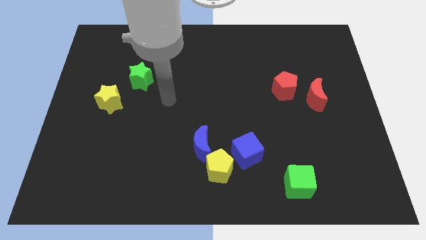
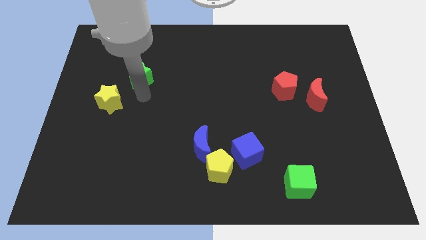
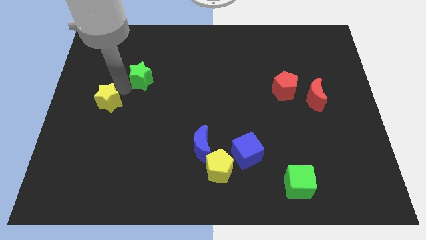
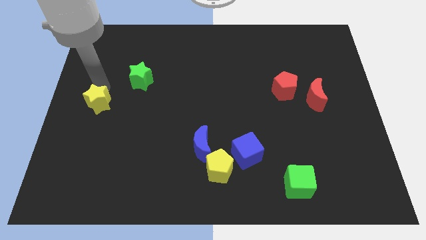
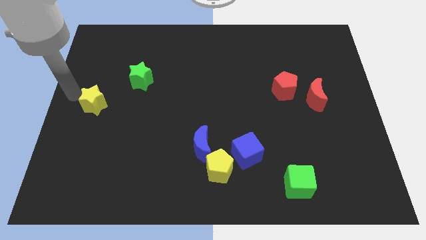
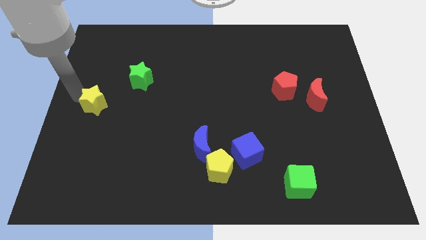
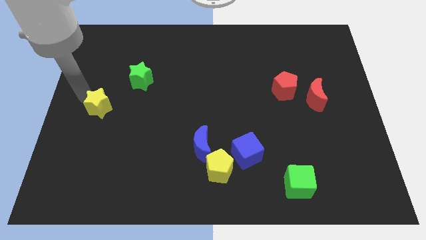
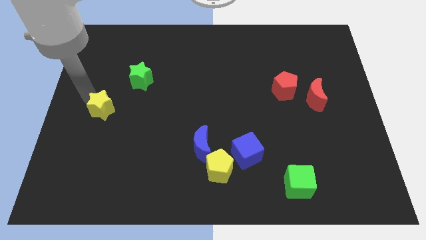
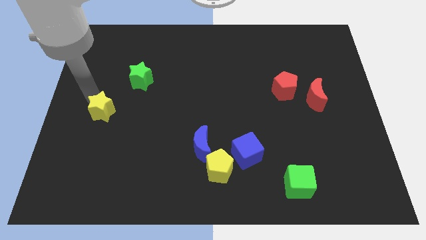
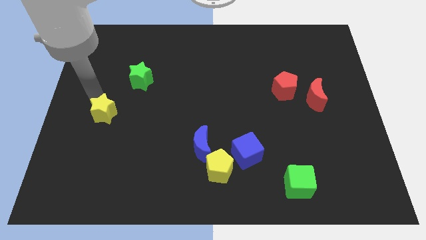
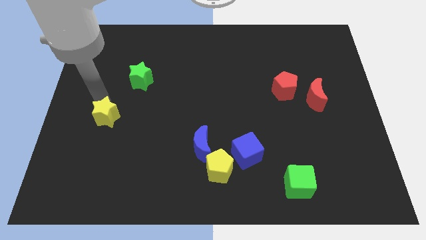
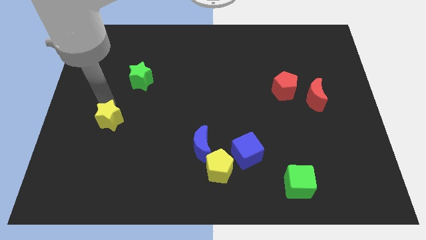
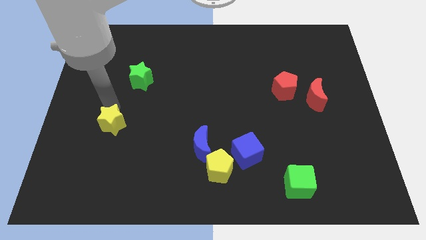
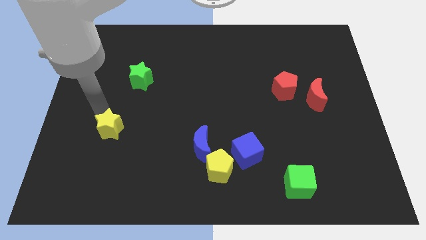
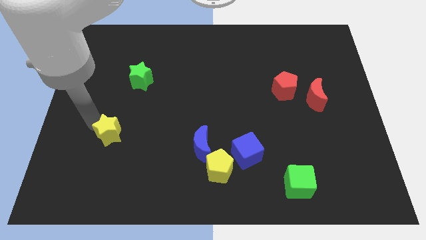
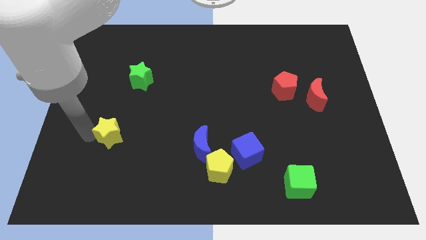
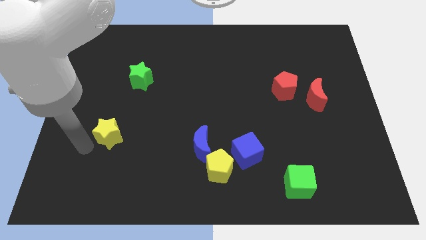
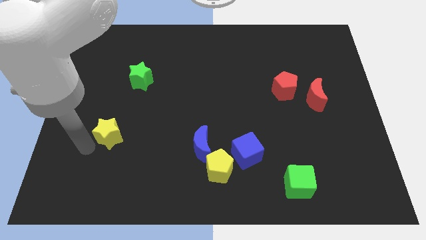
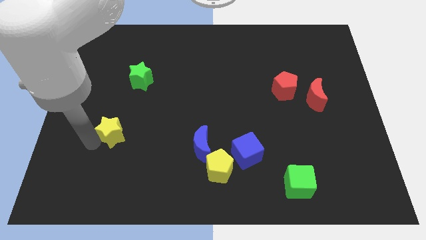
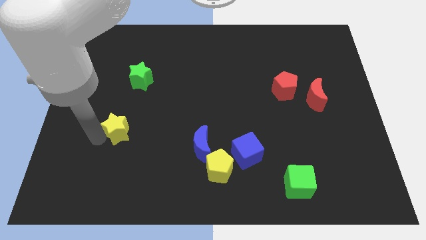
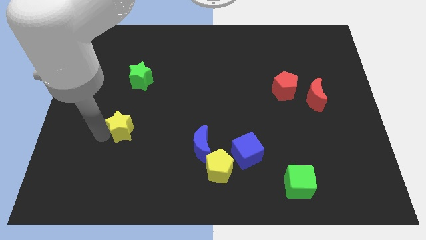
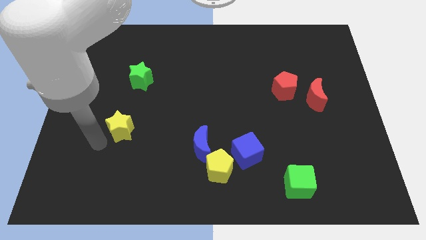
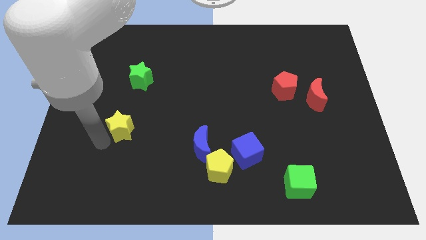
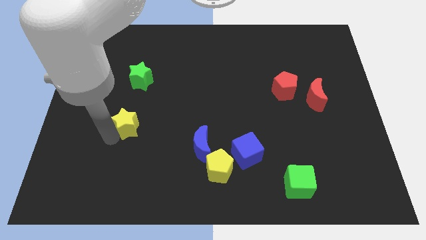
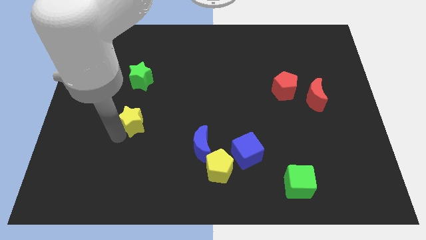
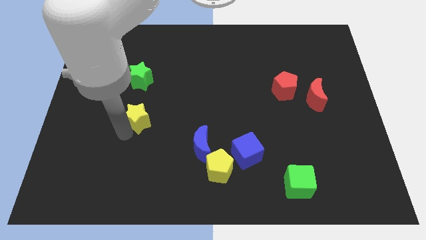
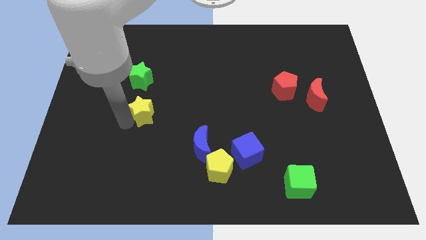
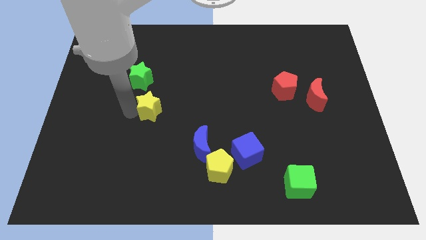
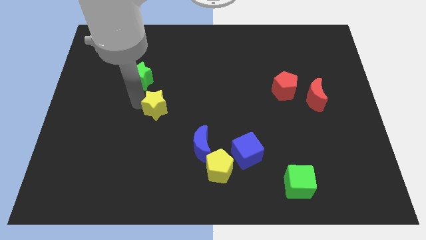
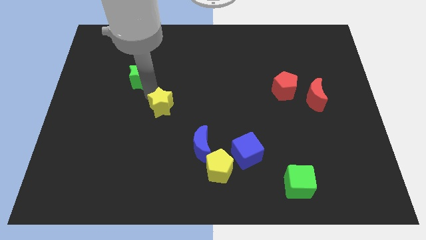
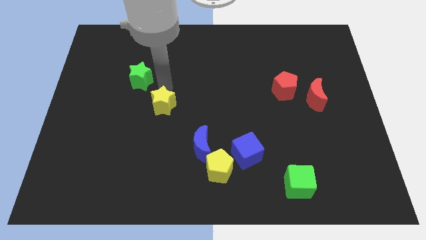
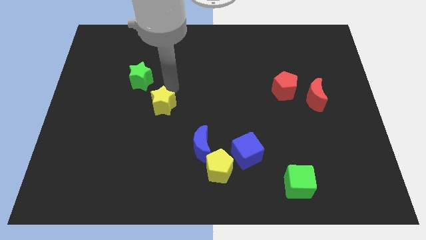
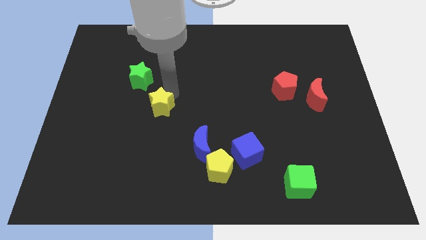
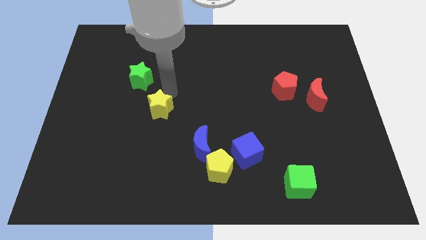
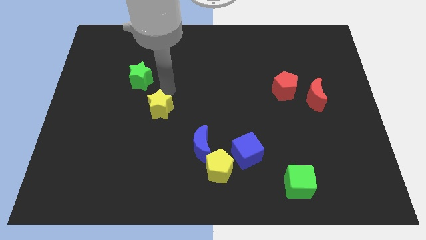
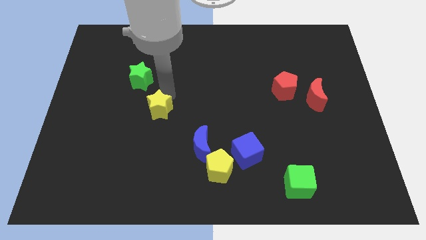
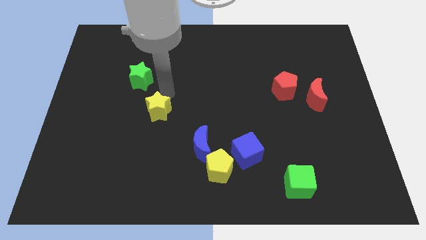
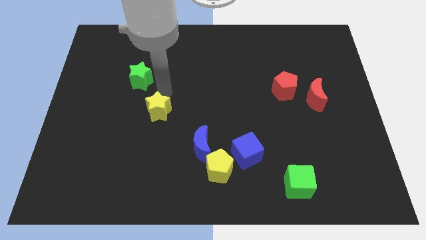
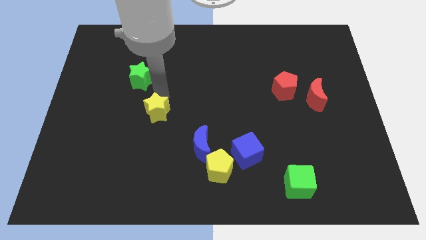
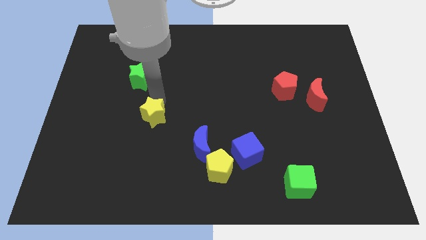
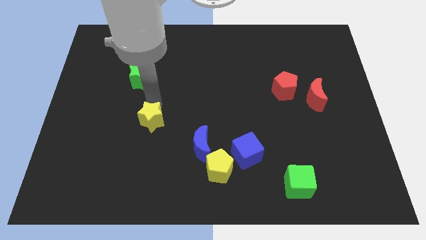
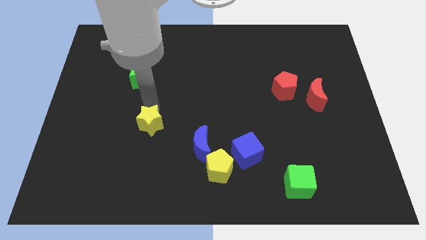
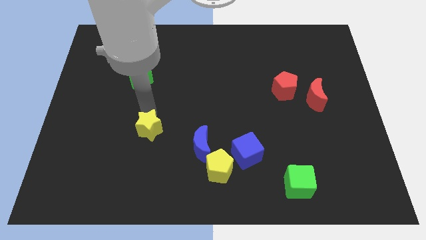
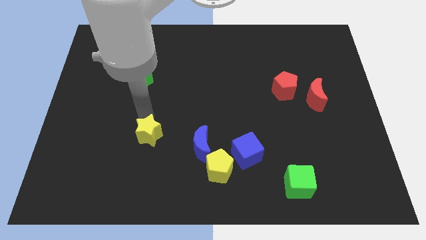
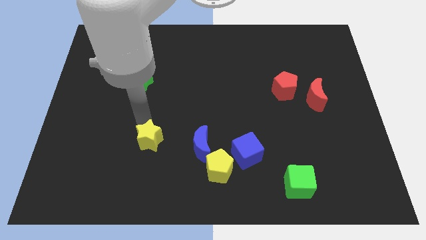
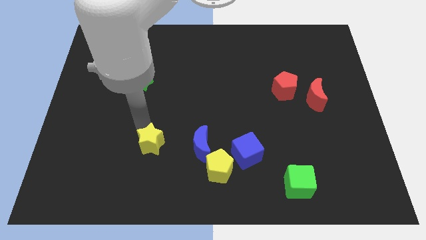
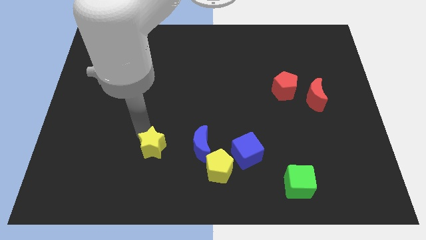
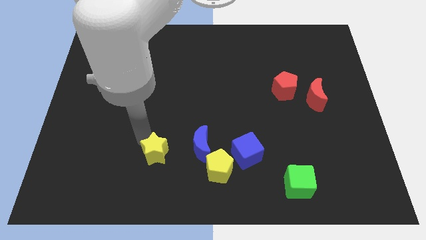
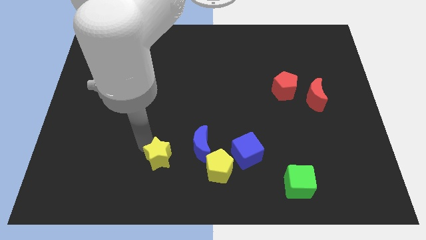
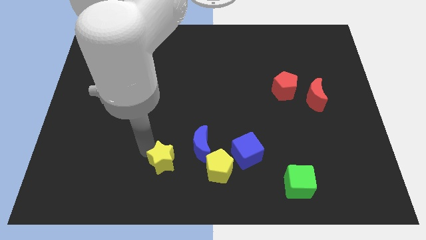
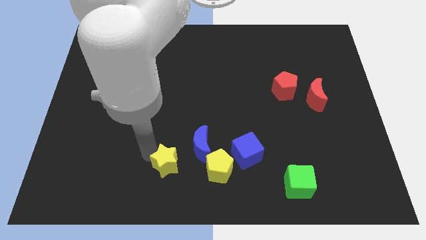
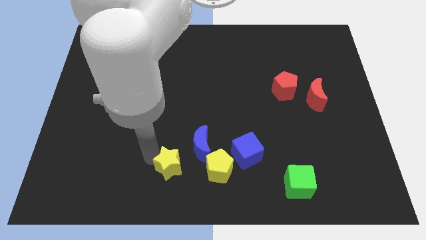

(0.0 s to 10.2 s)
put the yellow star to the bottom side
